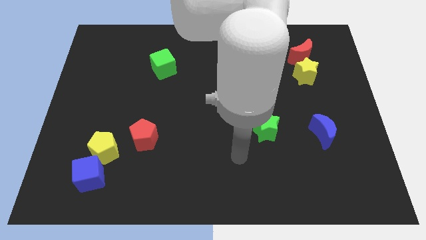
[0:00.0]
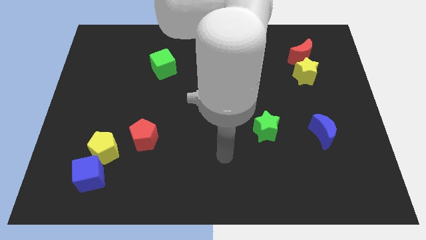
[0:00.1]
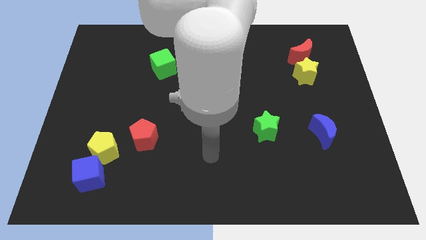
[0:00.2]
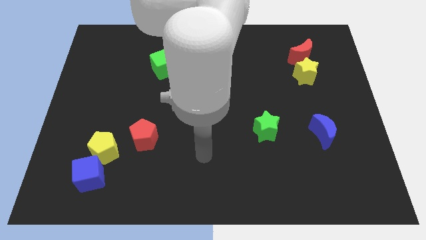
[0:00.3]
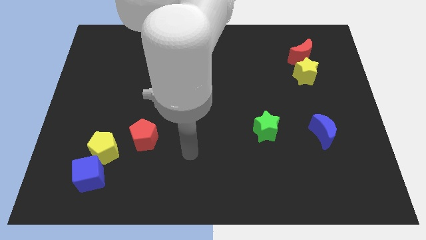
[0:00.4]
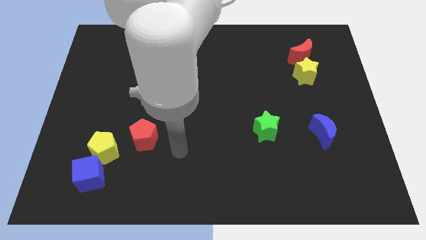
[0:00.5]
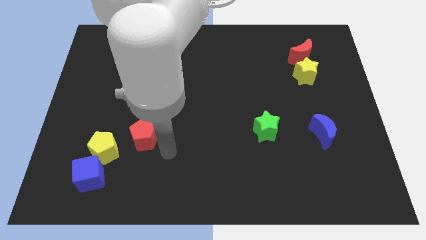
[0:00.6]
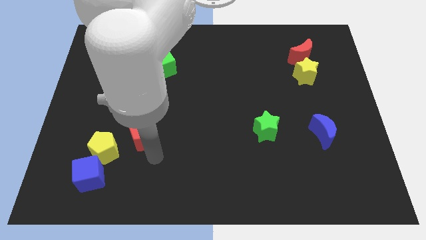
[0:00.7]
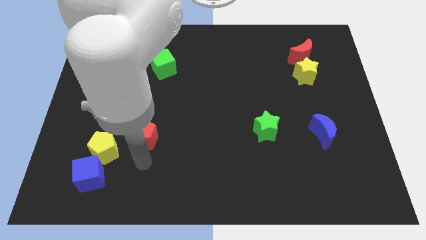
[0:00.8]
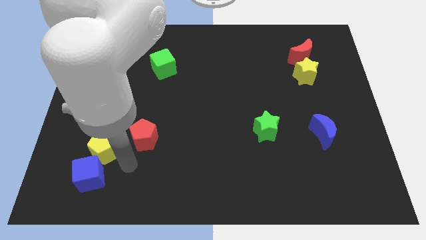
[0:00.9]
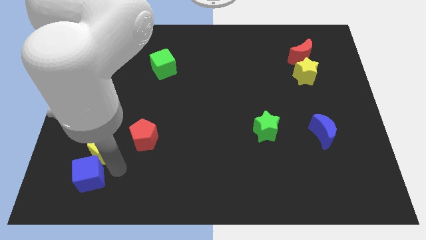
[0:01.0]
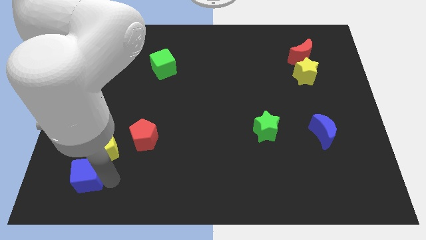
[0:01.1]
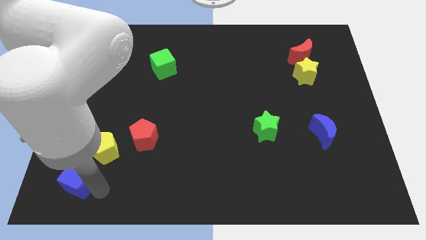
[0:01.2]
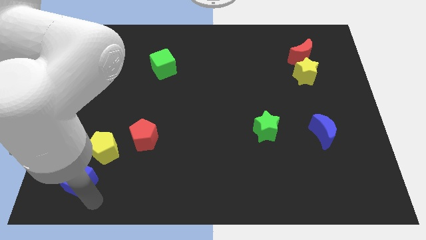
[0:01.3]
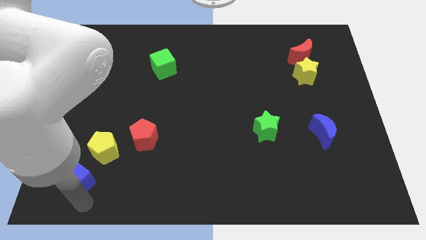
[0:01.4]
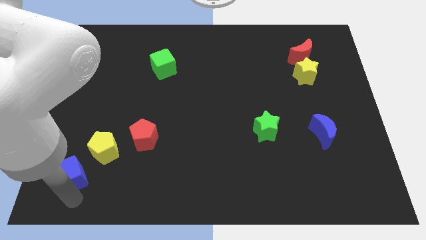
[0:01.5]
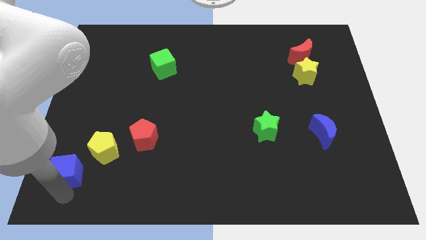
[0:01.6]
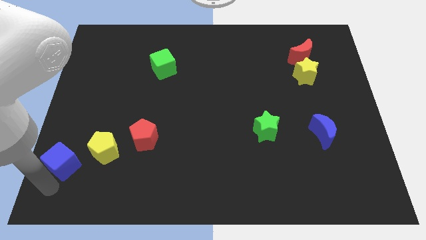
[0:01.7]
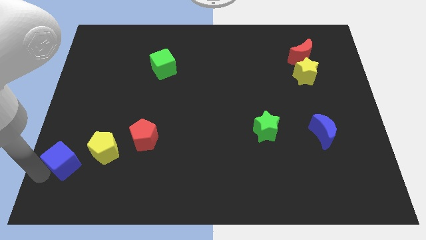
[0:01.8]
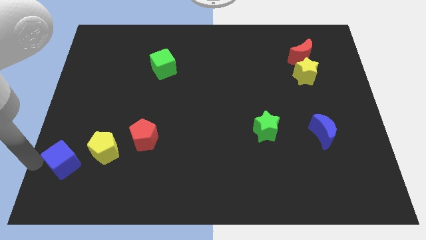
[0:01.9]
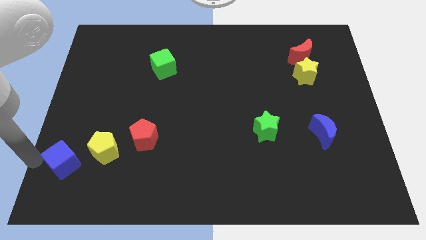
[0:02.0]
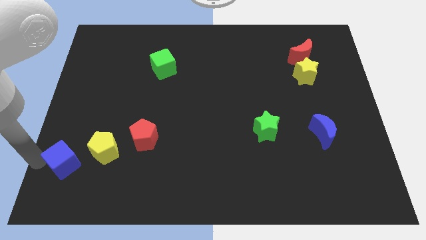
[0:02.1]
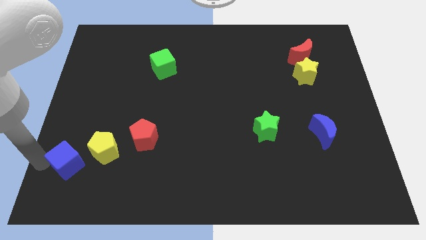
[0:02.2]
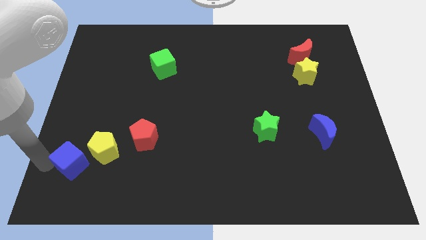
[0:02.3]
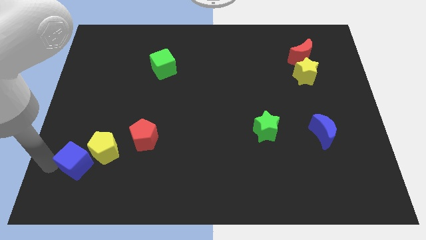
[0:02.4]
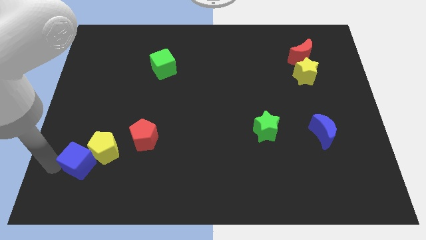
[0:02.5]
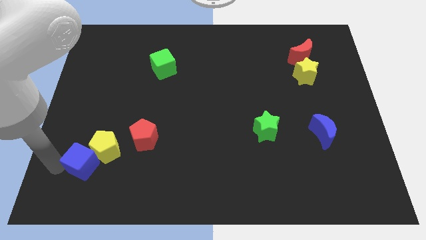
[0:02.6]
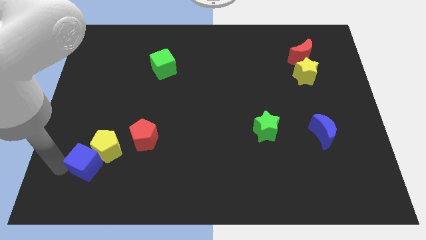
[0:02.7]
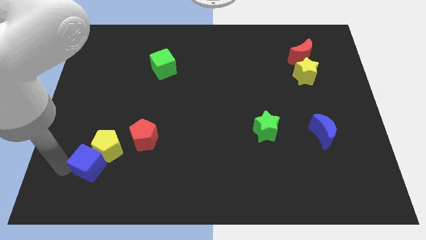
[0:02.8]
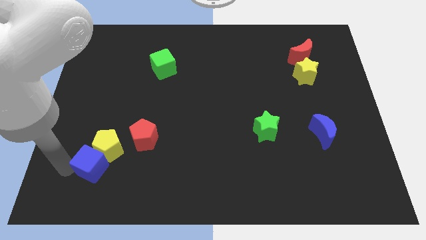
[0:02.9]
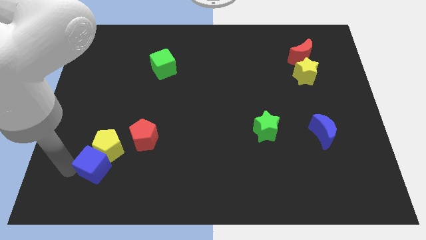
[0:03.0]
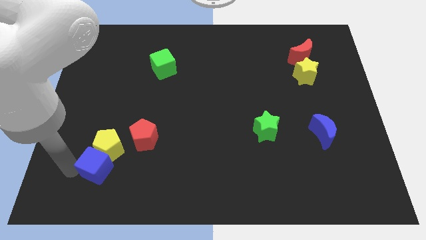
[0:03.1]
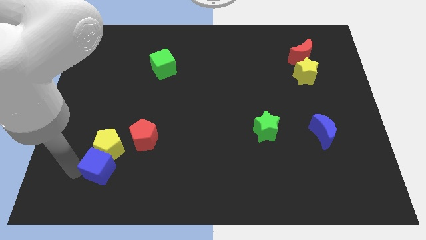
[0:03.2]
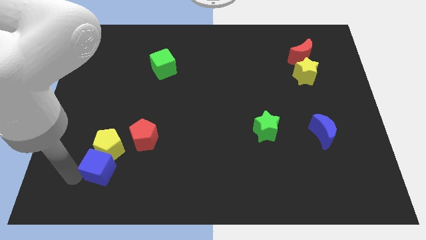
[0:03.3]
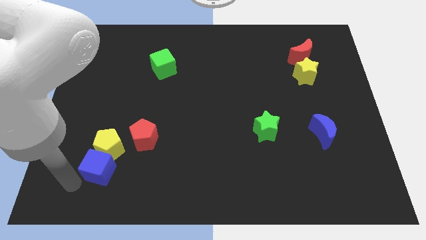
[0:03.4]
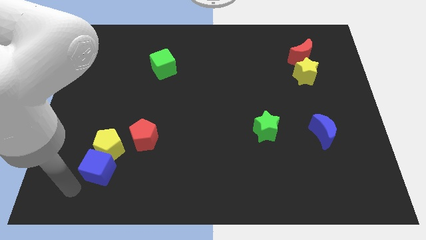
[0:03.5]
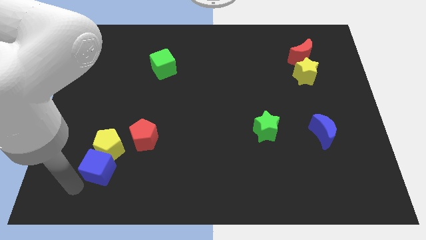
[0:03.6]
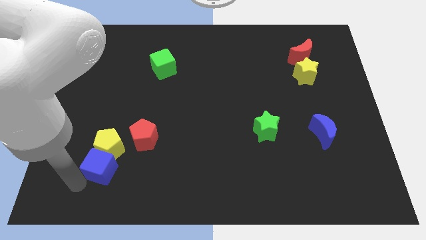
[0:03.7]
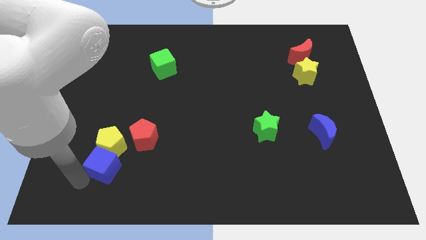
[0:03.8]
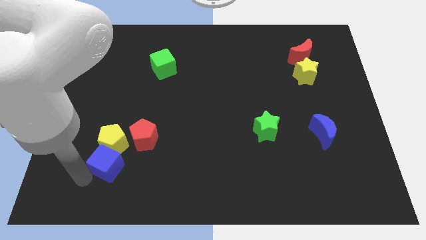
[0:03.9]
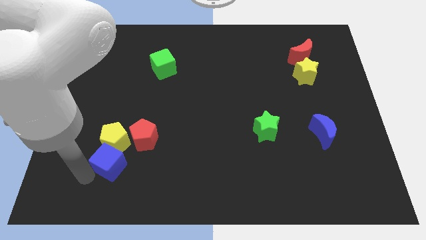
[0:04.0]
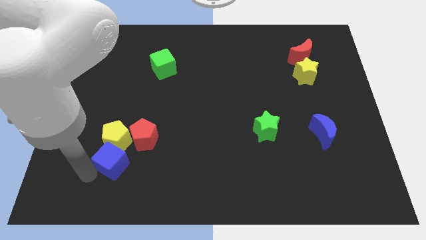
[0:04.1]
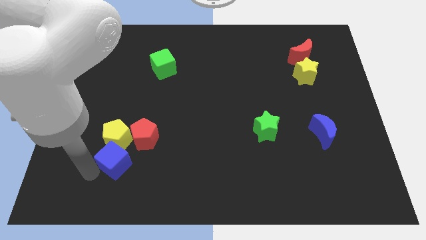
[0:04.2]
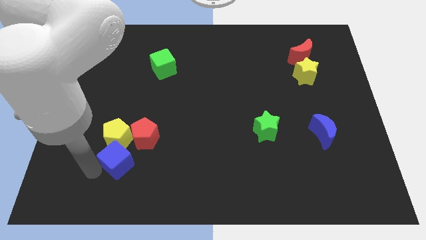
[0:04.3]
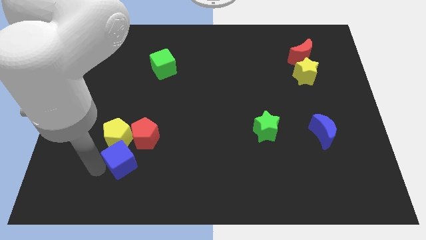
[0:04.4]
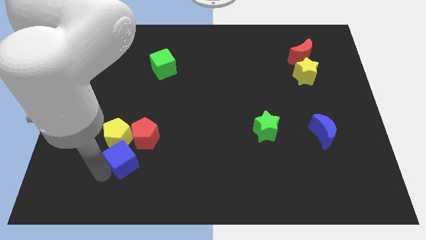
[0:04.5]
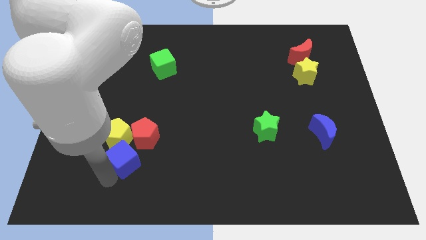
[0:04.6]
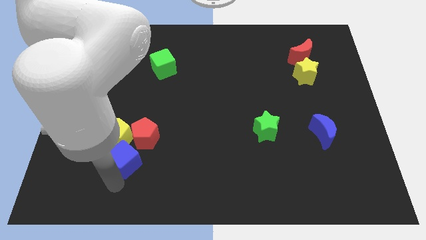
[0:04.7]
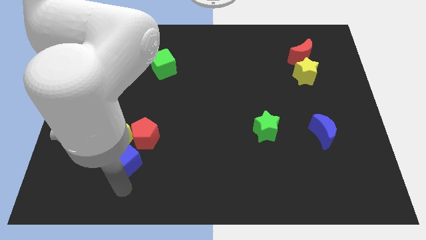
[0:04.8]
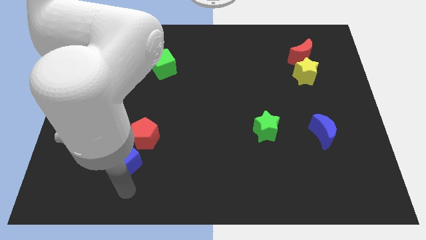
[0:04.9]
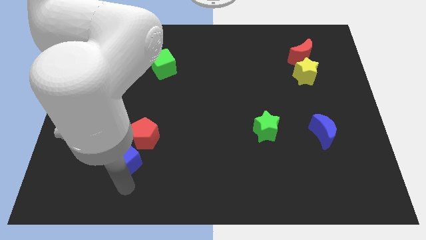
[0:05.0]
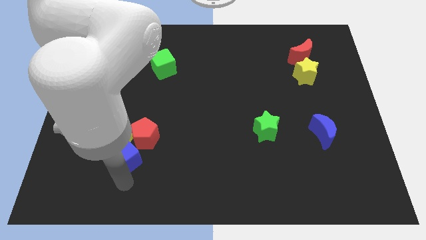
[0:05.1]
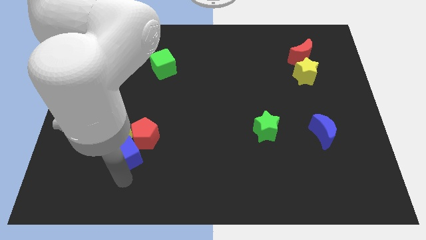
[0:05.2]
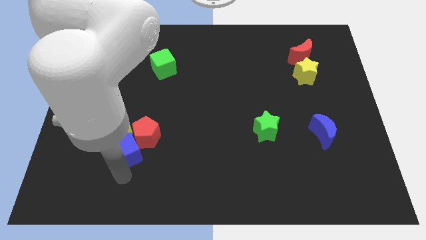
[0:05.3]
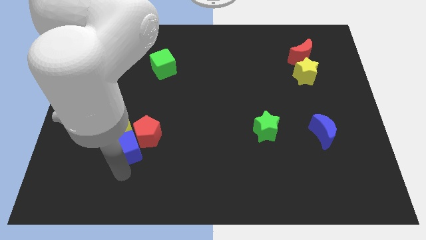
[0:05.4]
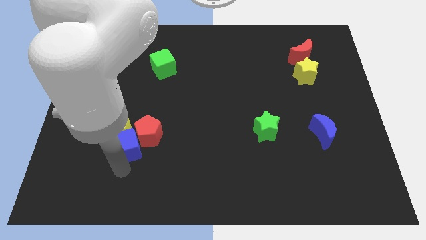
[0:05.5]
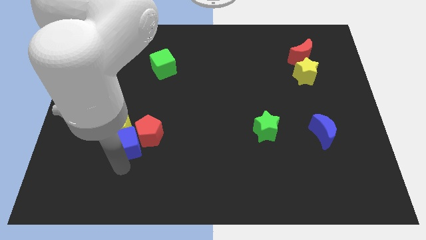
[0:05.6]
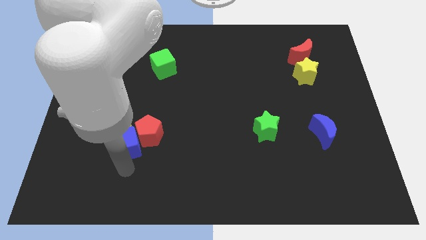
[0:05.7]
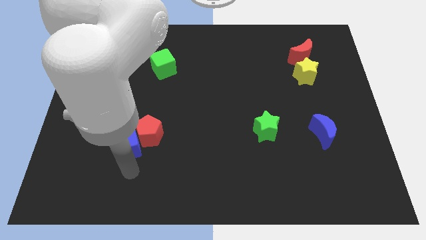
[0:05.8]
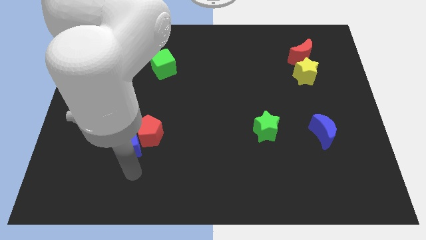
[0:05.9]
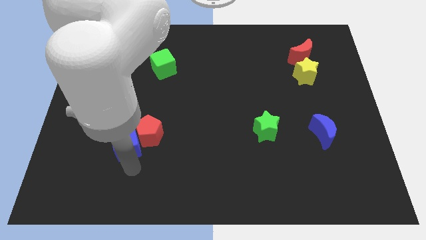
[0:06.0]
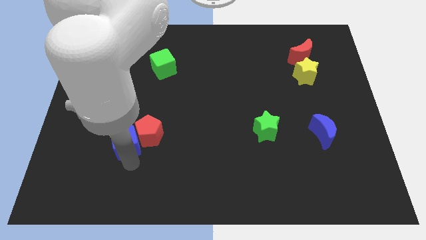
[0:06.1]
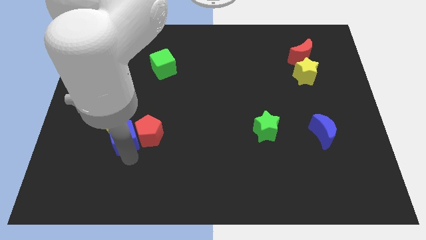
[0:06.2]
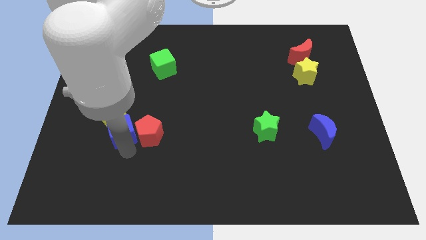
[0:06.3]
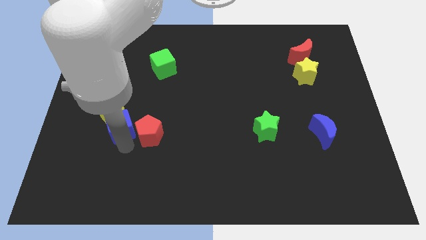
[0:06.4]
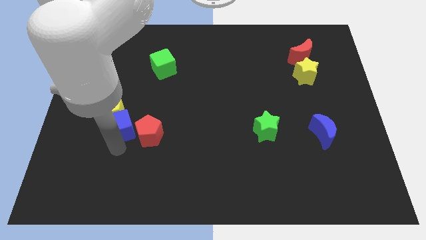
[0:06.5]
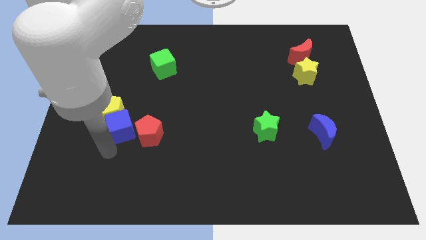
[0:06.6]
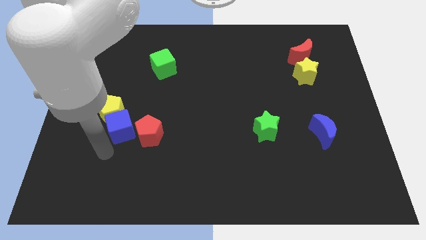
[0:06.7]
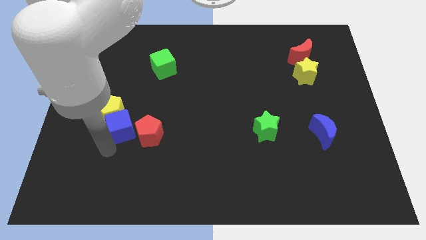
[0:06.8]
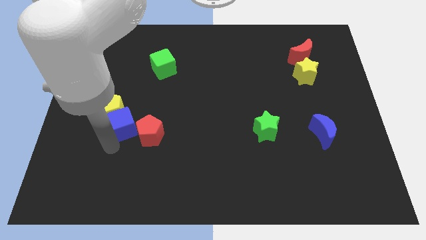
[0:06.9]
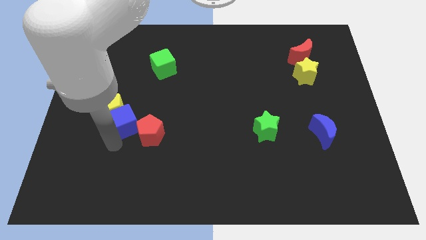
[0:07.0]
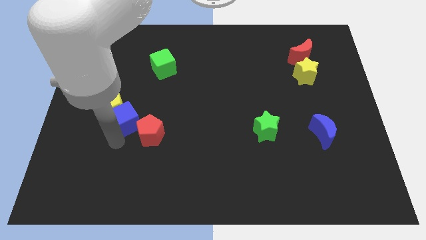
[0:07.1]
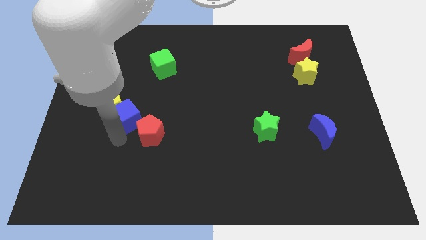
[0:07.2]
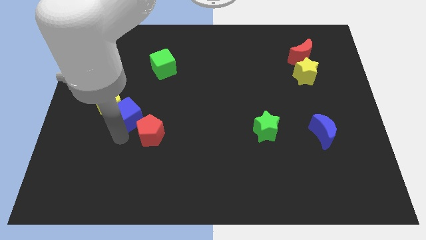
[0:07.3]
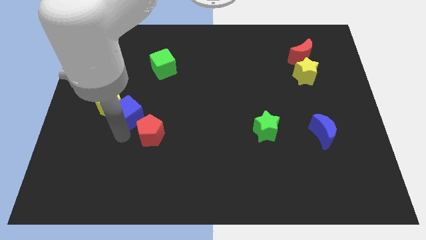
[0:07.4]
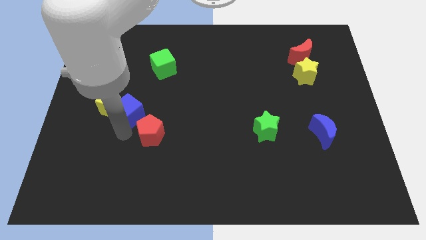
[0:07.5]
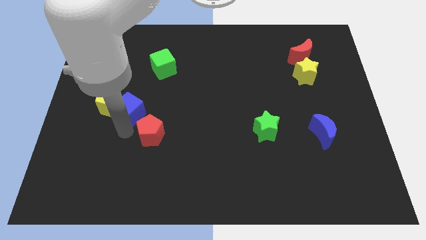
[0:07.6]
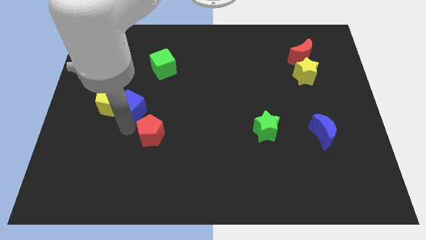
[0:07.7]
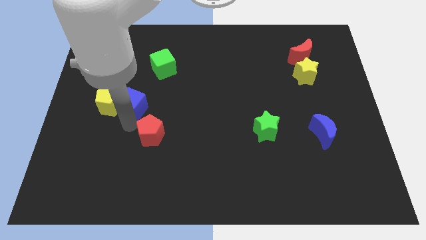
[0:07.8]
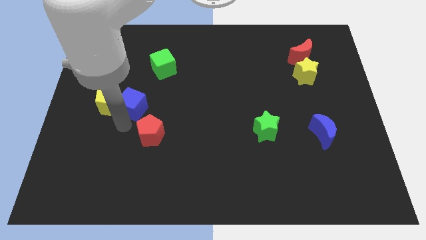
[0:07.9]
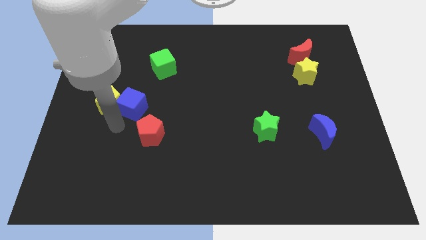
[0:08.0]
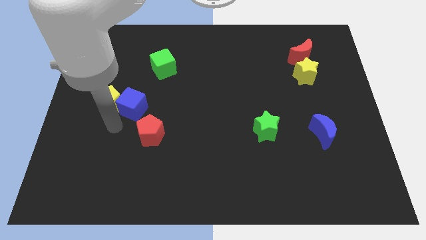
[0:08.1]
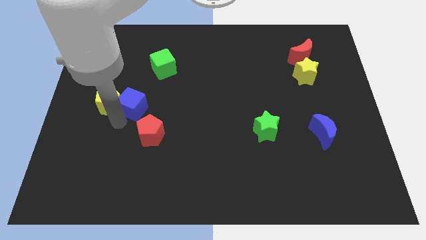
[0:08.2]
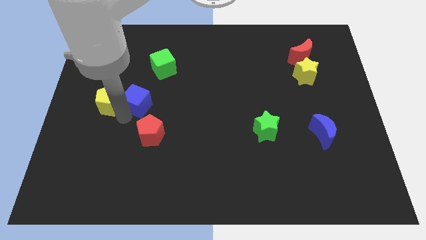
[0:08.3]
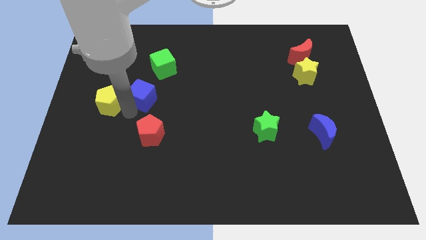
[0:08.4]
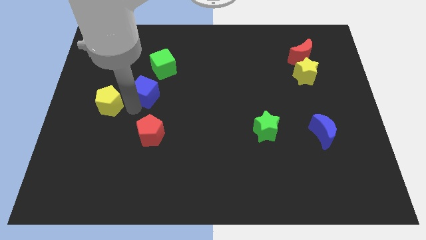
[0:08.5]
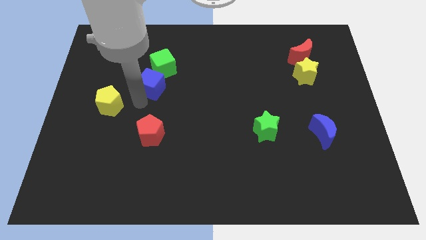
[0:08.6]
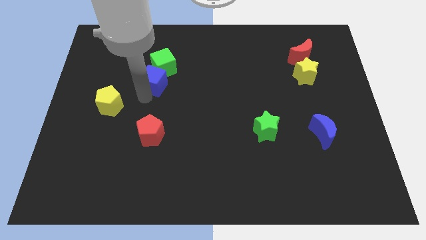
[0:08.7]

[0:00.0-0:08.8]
put the blue cube towards the green cube
